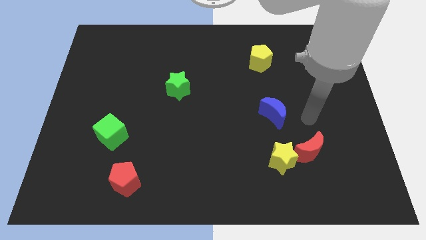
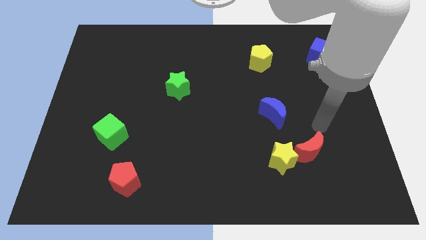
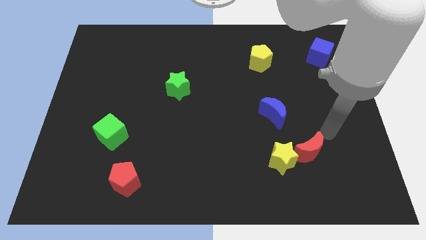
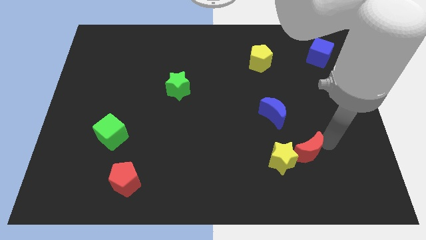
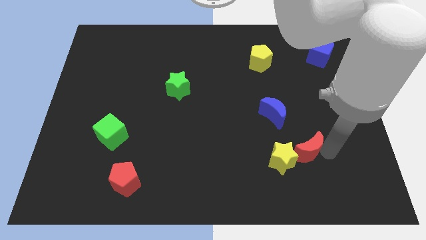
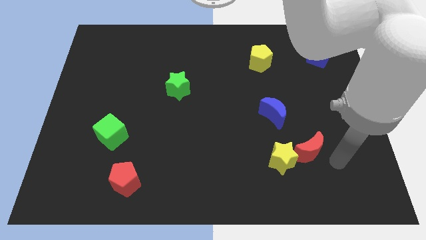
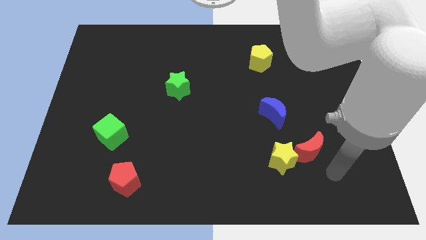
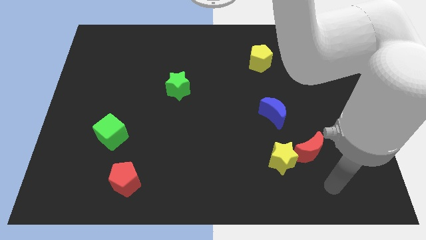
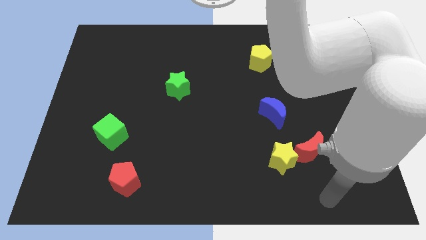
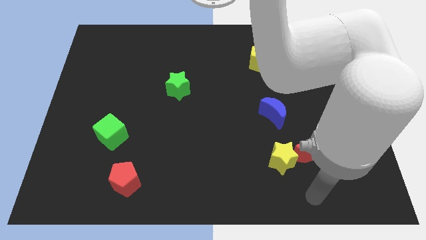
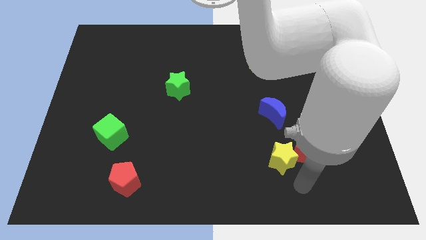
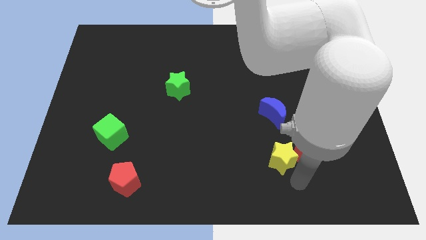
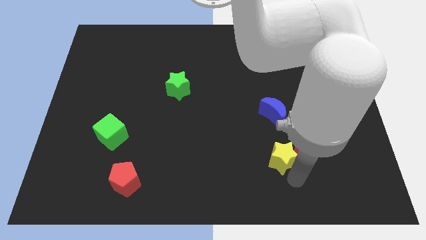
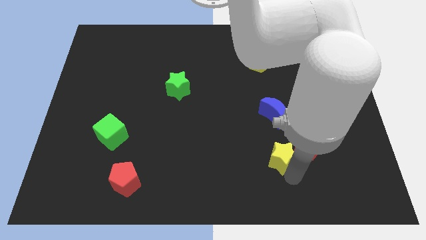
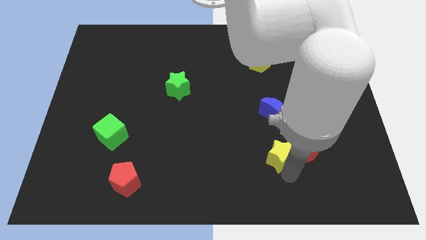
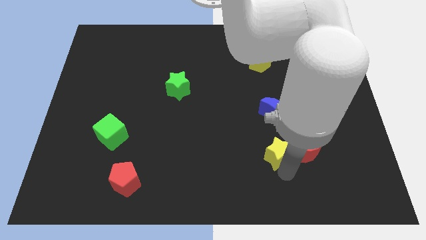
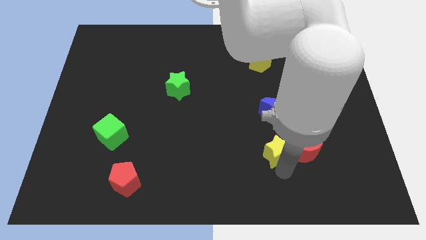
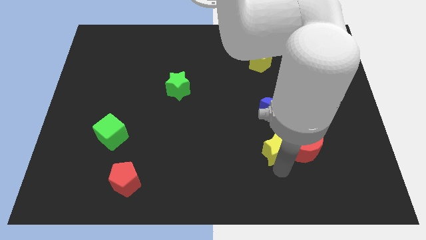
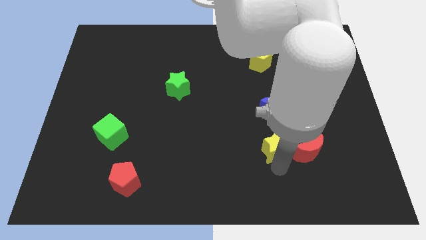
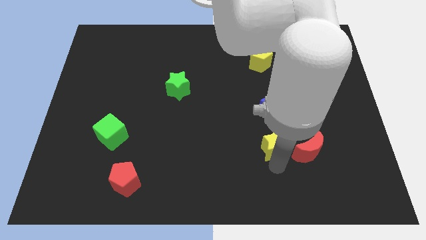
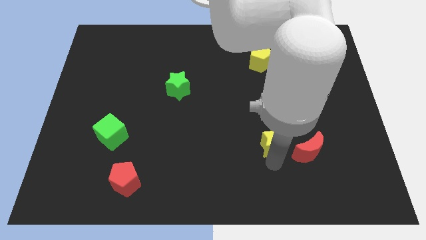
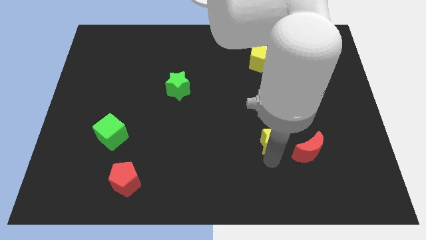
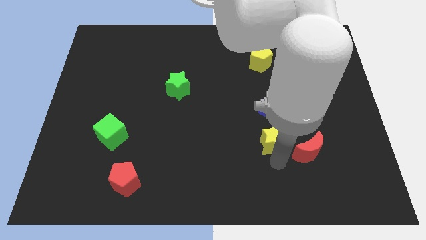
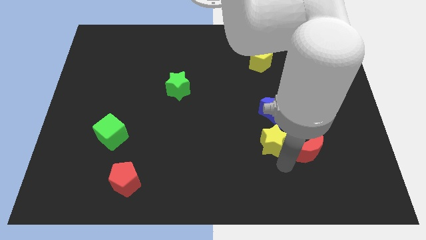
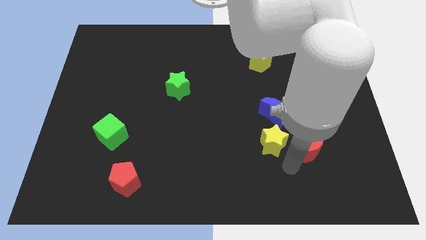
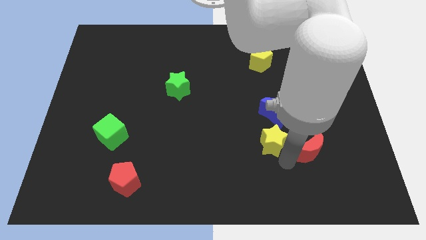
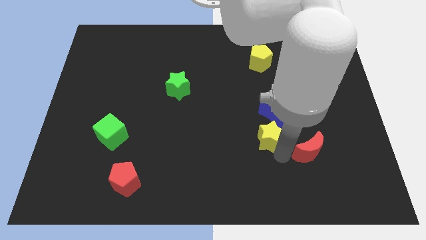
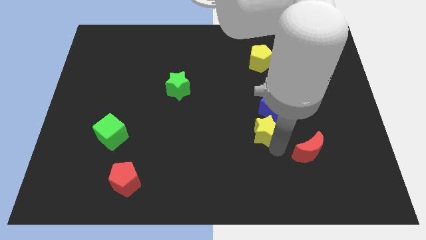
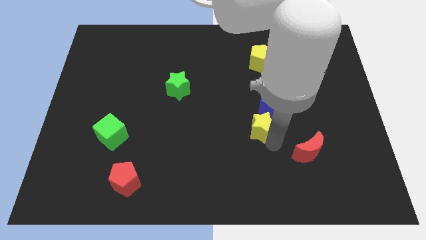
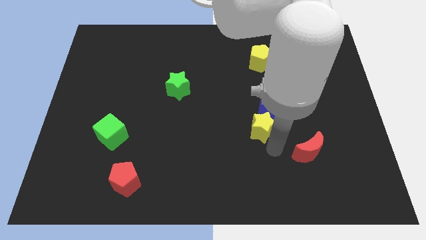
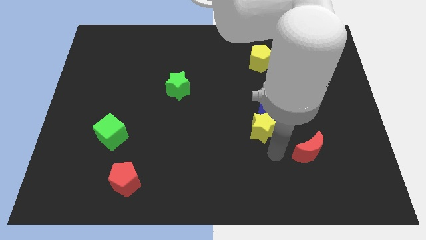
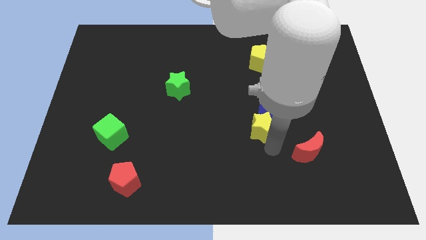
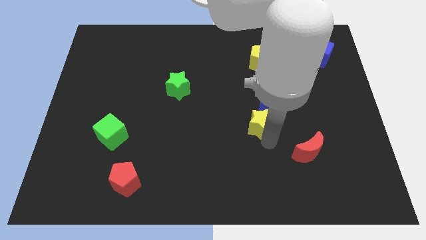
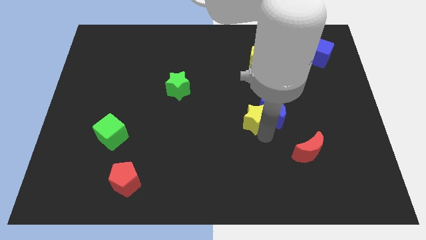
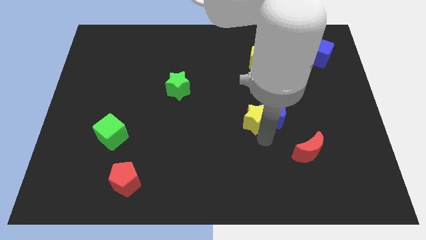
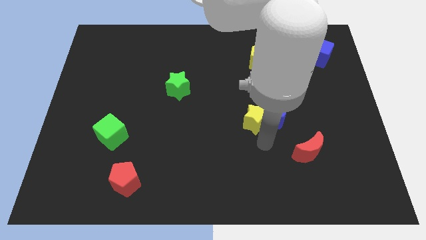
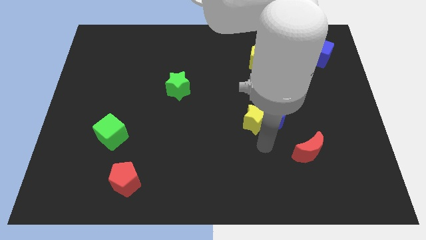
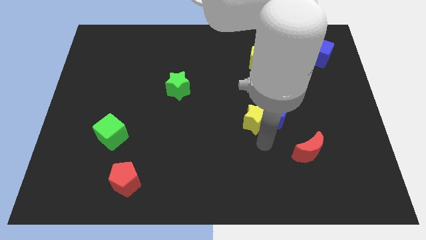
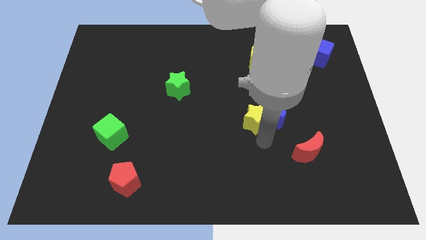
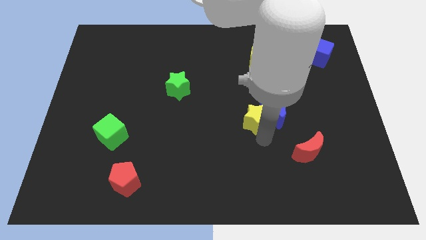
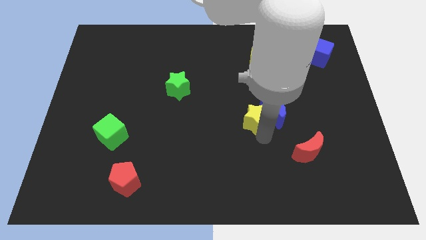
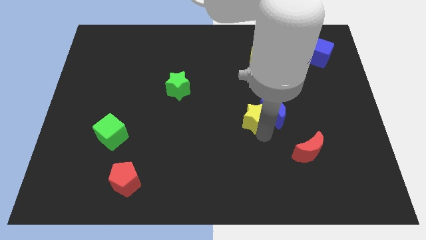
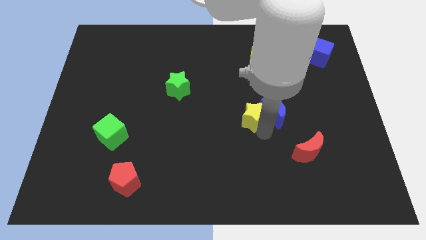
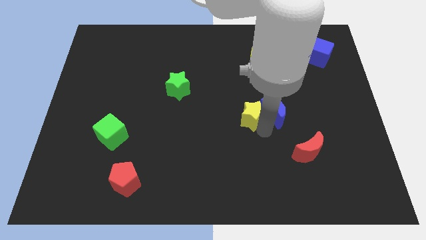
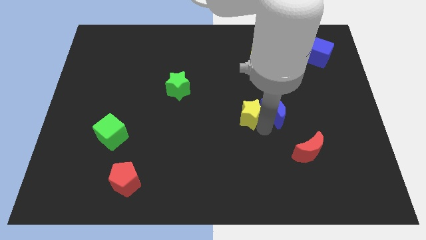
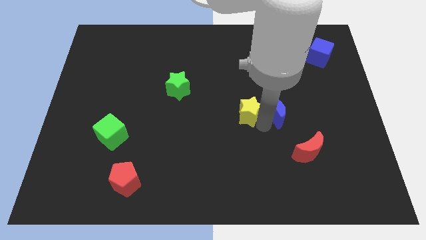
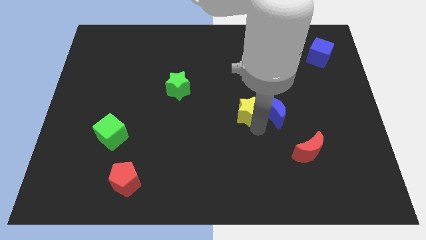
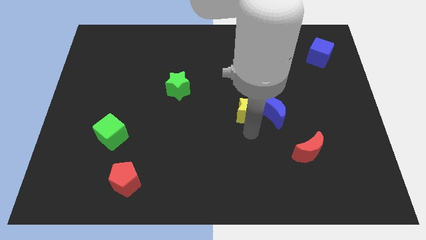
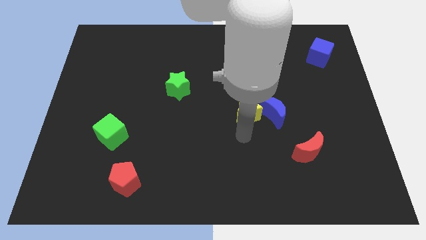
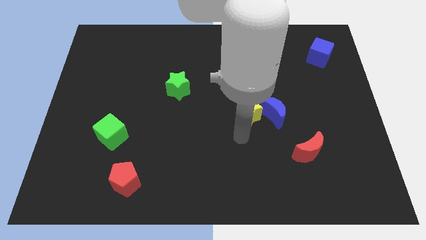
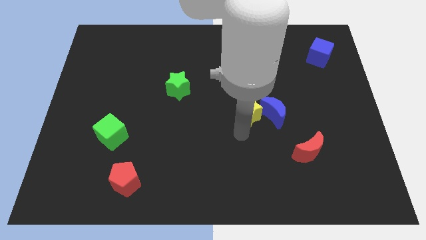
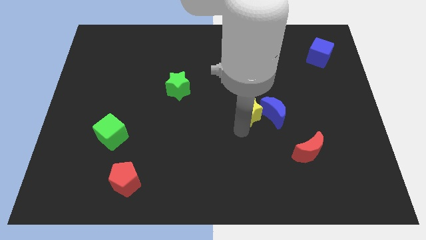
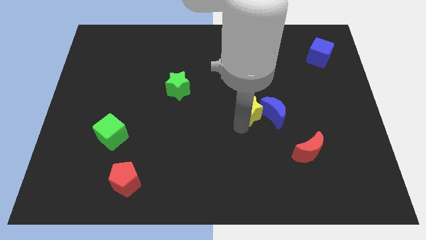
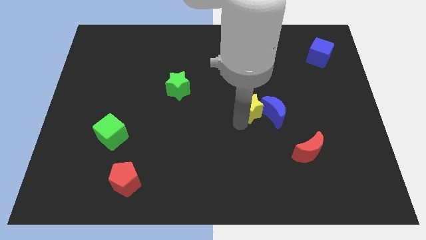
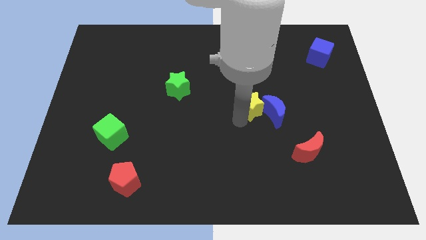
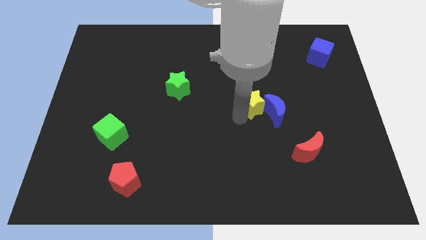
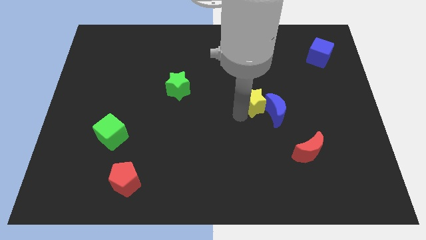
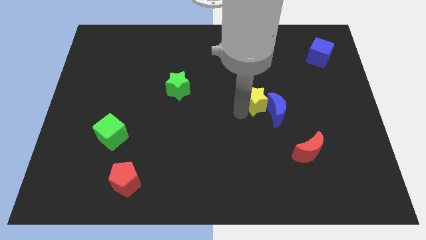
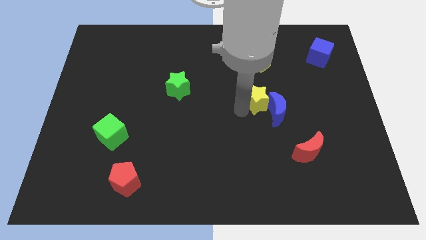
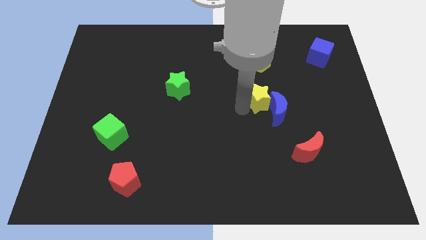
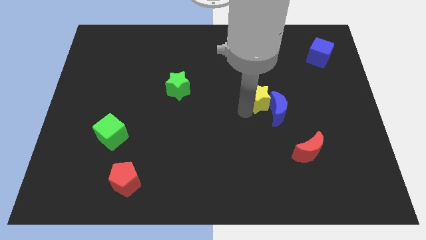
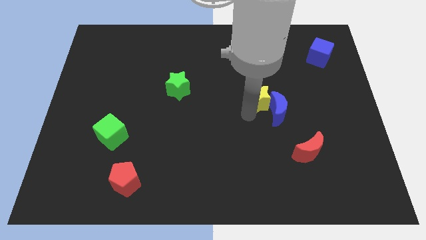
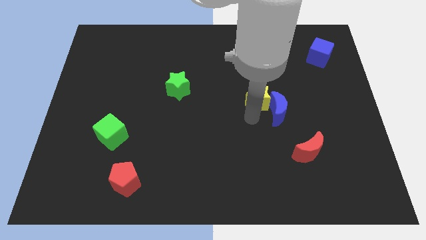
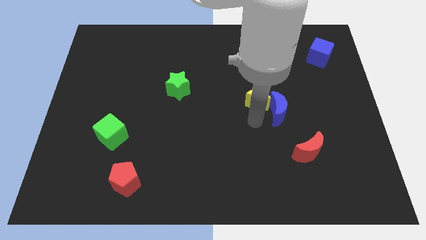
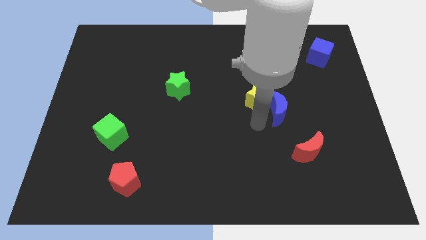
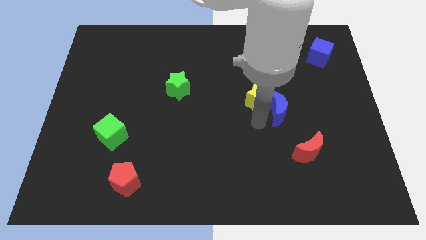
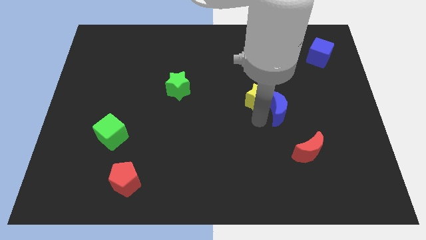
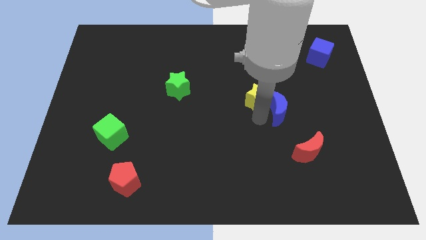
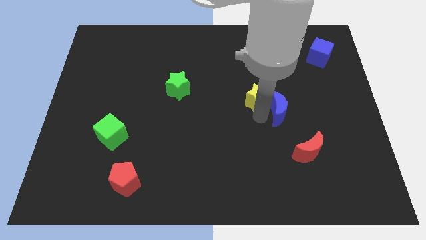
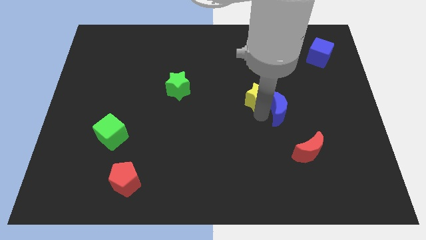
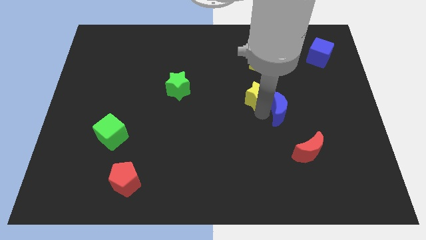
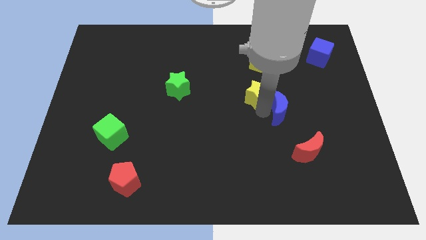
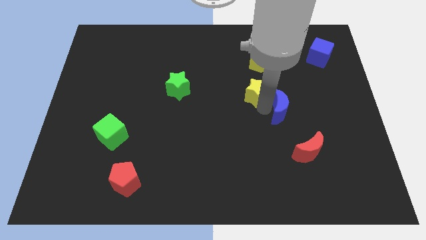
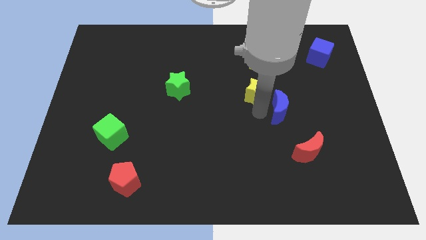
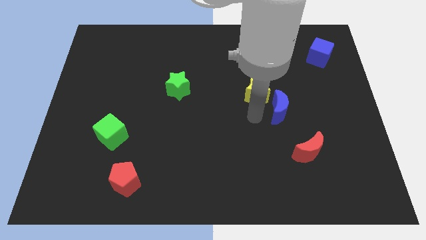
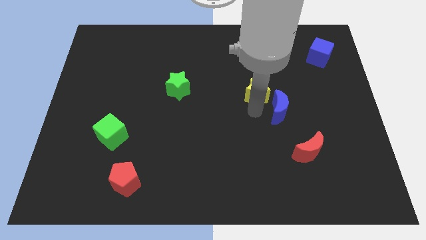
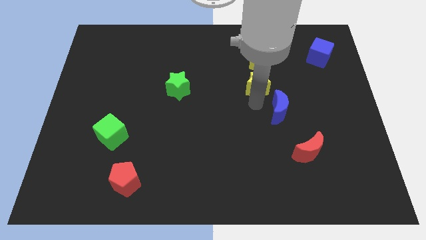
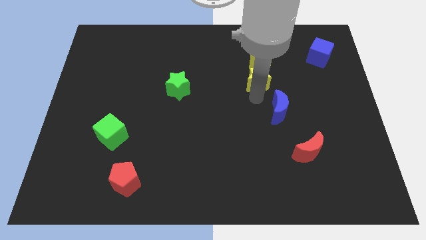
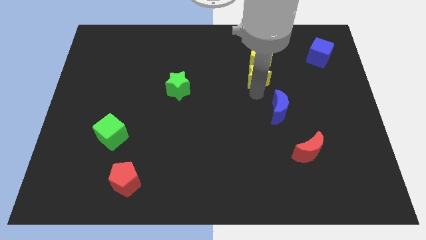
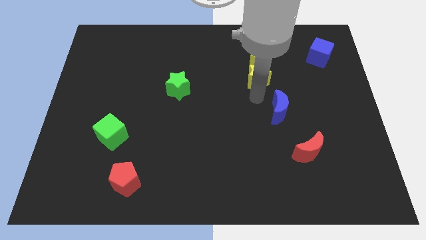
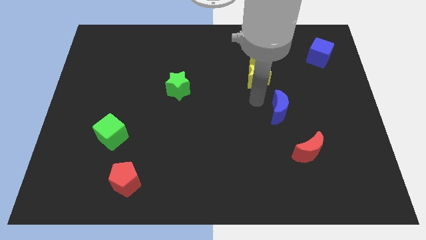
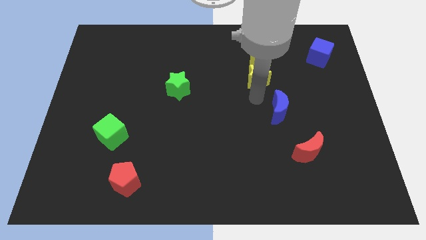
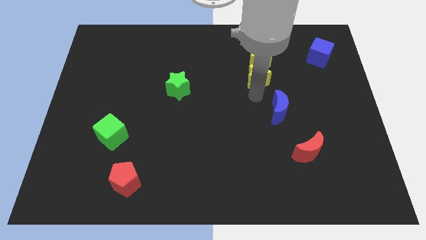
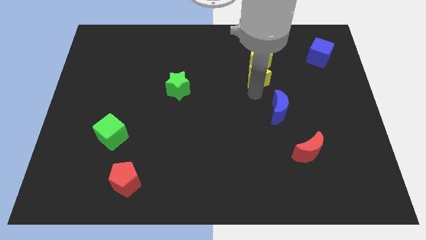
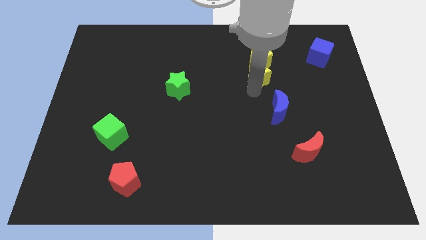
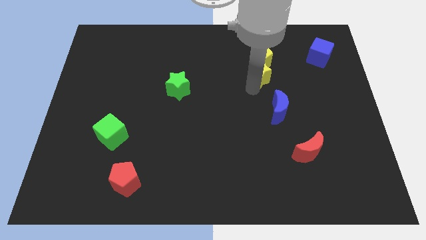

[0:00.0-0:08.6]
push the yellow star to the yellow pentagon
